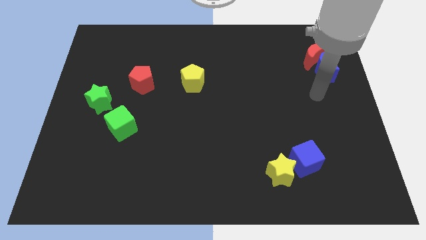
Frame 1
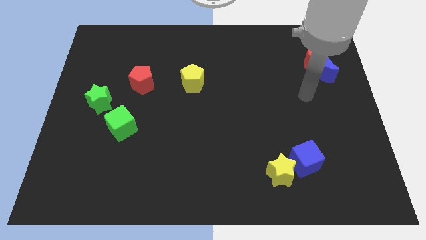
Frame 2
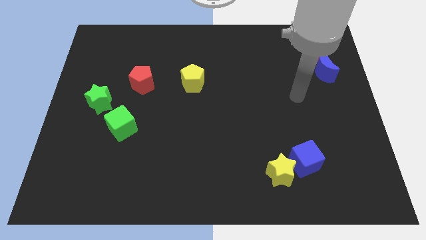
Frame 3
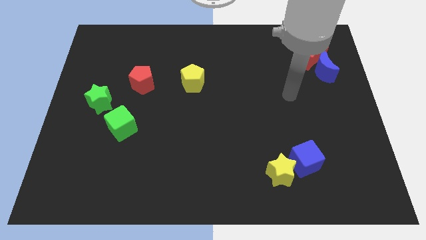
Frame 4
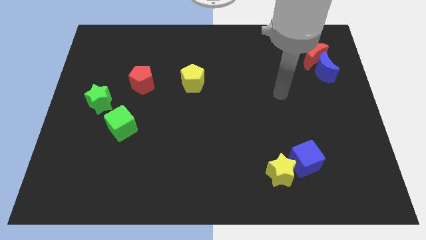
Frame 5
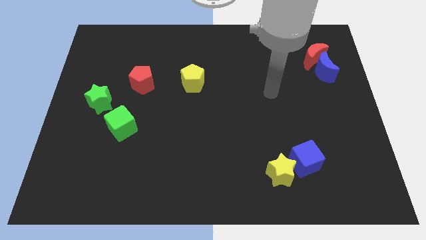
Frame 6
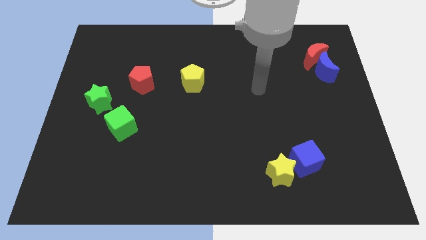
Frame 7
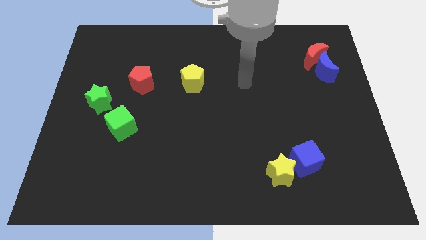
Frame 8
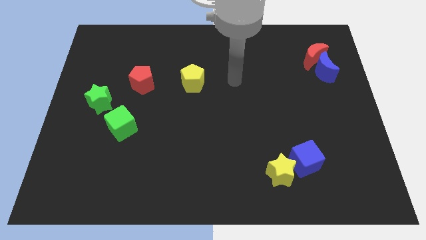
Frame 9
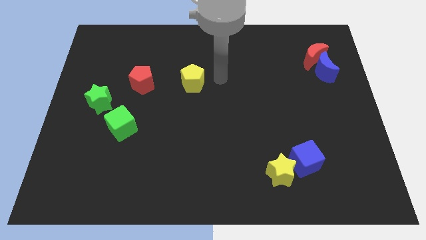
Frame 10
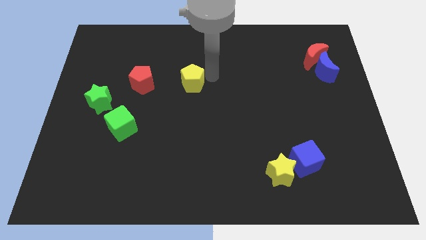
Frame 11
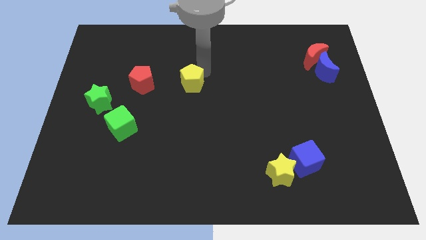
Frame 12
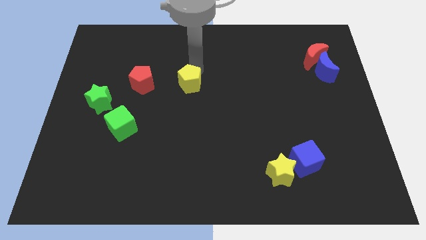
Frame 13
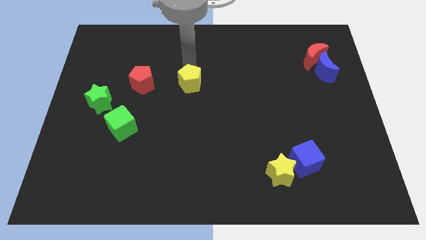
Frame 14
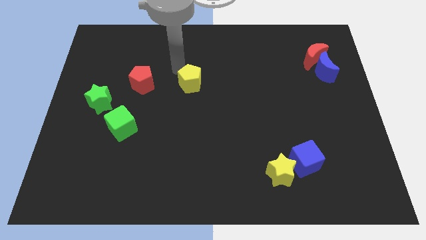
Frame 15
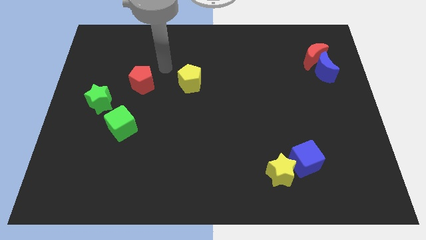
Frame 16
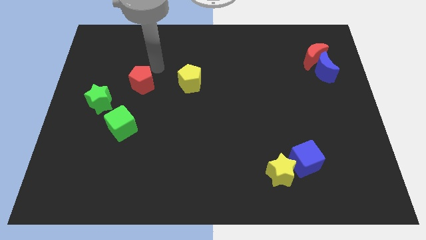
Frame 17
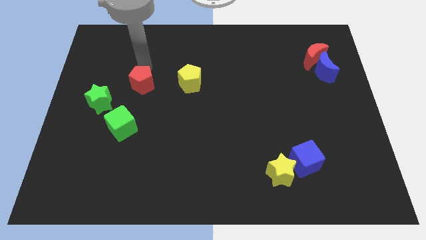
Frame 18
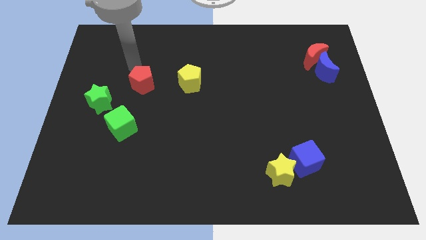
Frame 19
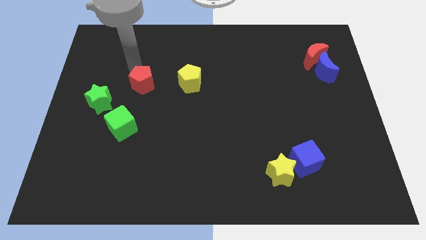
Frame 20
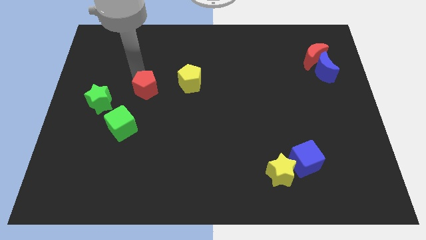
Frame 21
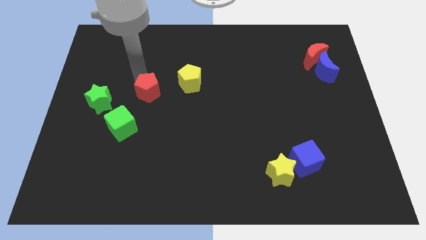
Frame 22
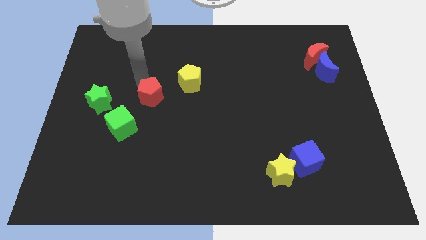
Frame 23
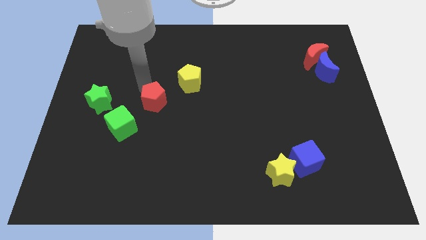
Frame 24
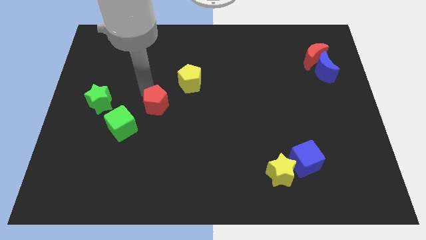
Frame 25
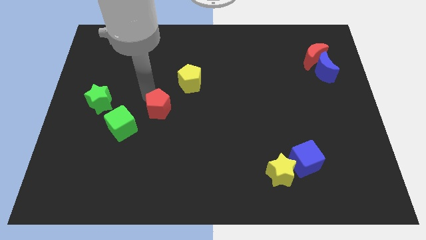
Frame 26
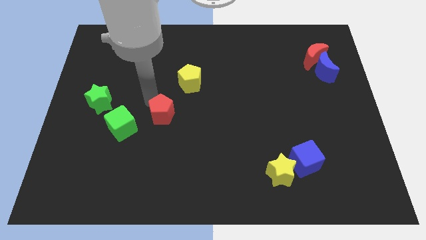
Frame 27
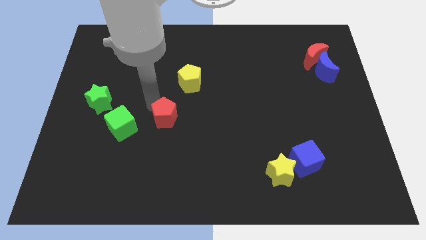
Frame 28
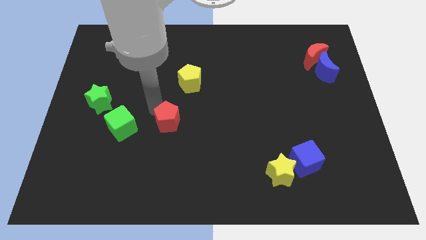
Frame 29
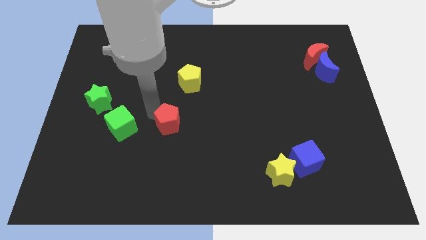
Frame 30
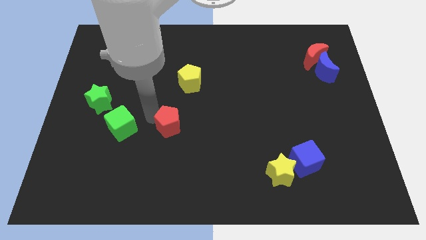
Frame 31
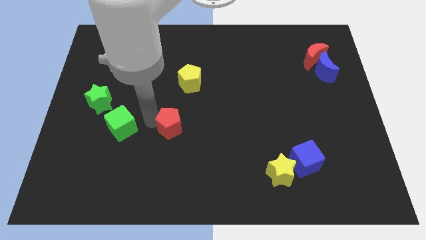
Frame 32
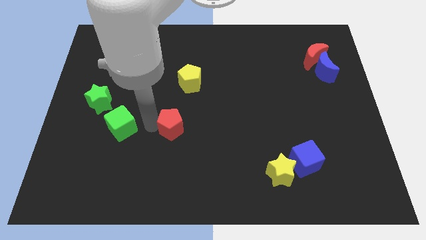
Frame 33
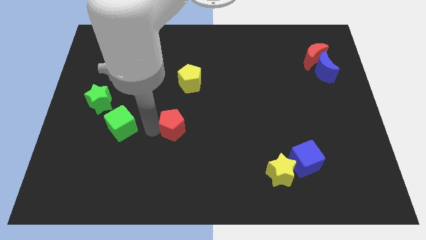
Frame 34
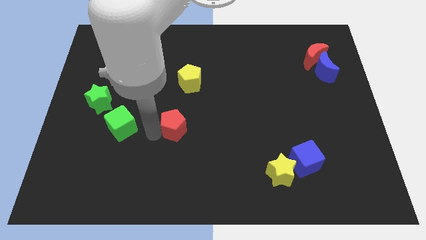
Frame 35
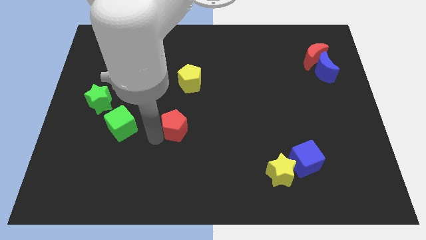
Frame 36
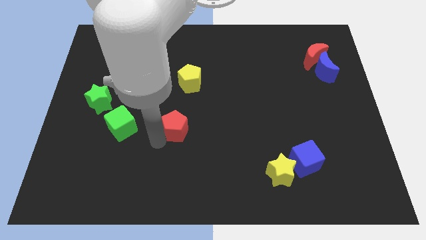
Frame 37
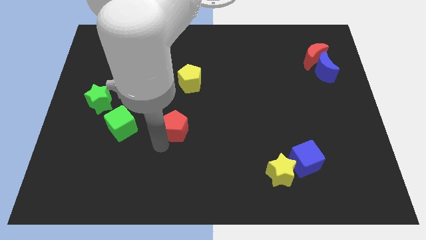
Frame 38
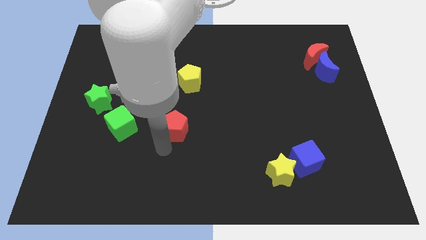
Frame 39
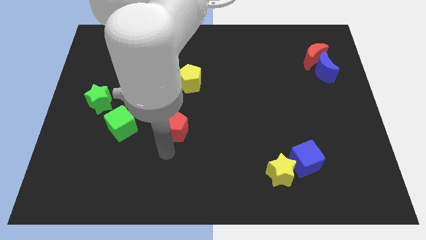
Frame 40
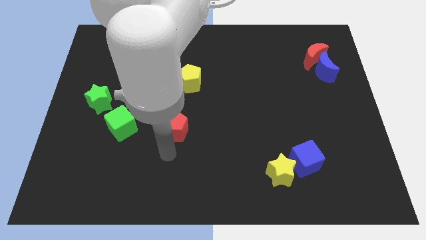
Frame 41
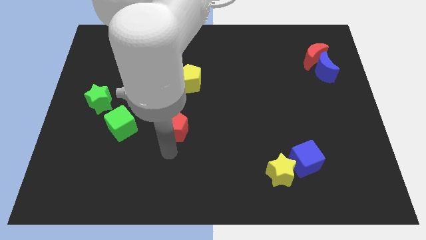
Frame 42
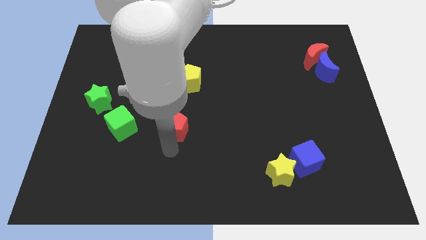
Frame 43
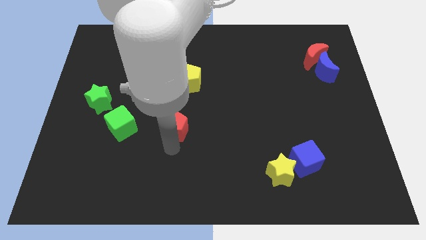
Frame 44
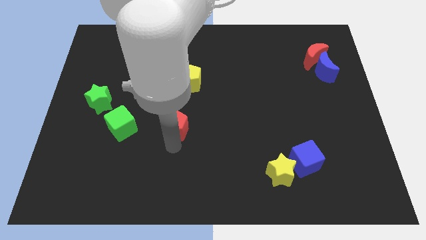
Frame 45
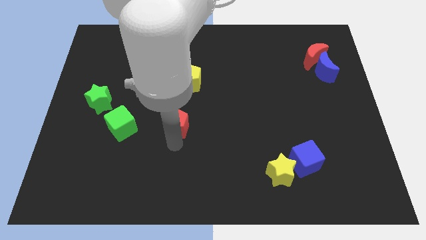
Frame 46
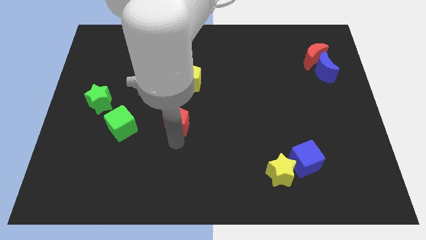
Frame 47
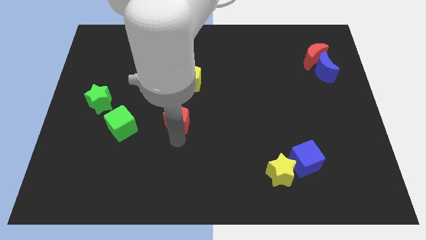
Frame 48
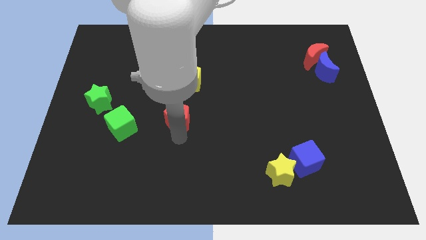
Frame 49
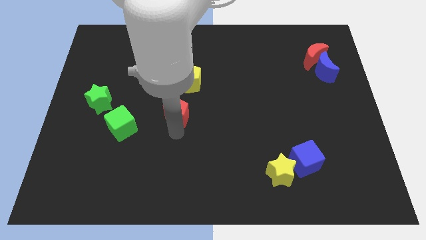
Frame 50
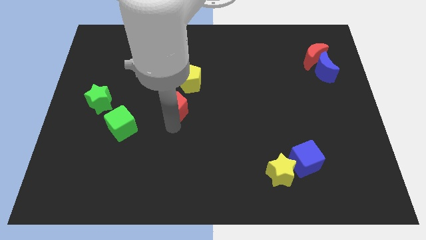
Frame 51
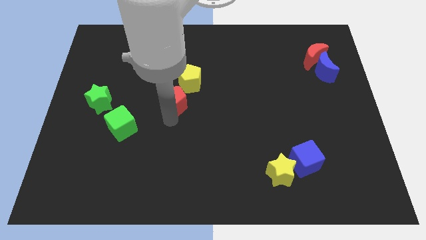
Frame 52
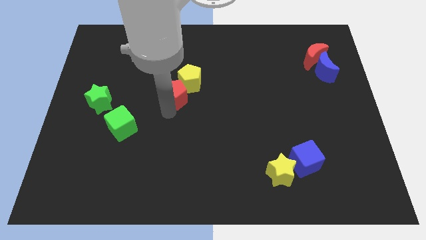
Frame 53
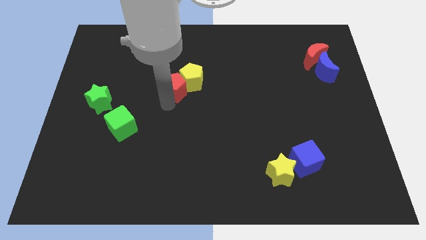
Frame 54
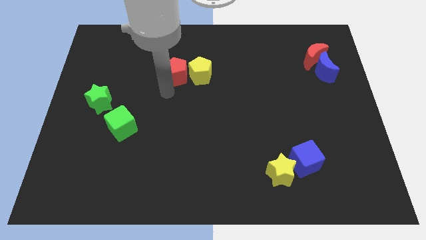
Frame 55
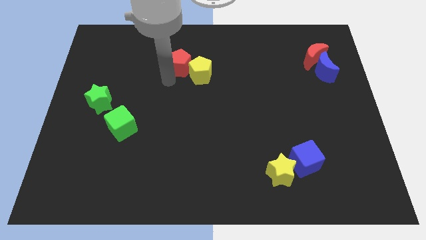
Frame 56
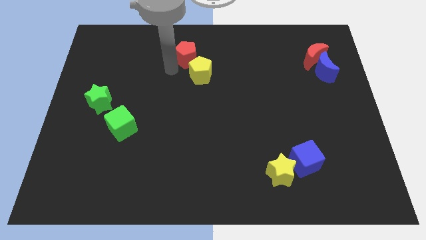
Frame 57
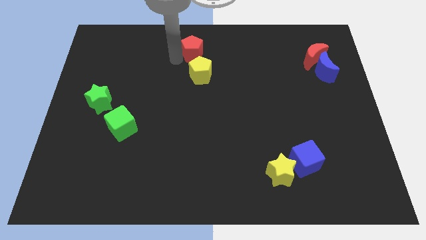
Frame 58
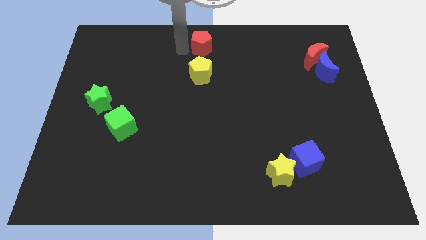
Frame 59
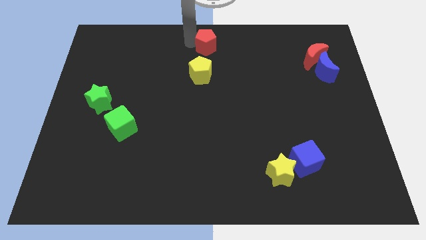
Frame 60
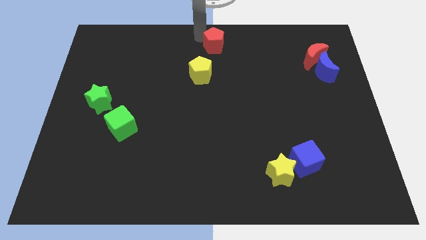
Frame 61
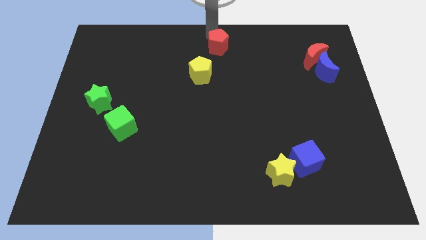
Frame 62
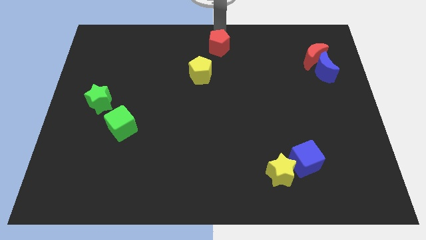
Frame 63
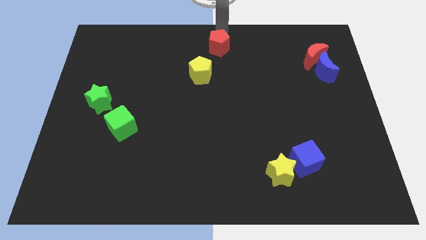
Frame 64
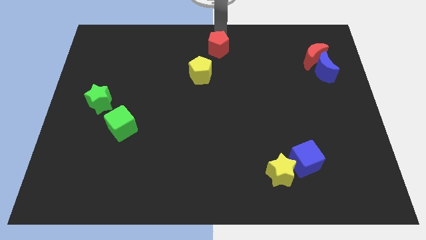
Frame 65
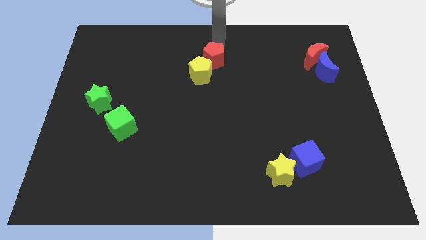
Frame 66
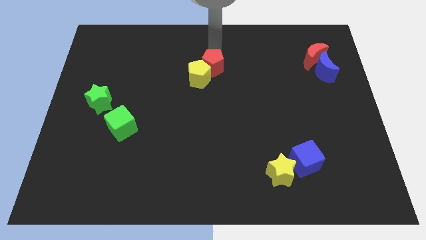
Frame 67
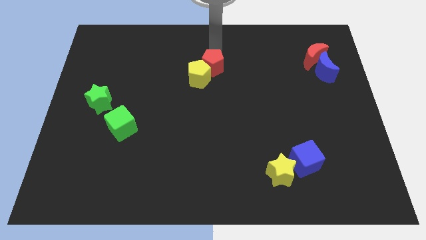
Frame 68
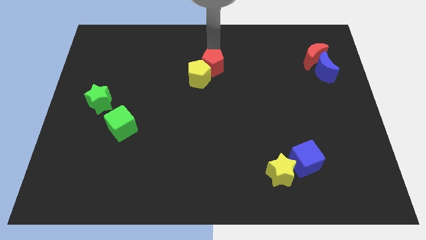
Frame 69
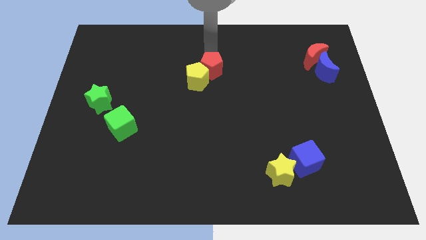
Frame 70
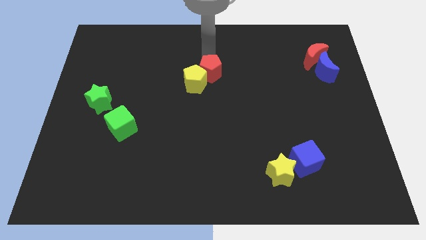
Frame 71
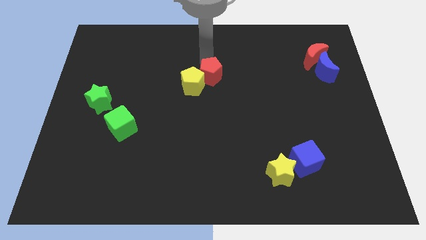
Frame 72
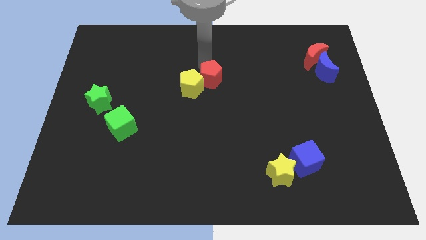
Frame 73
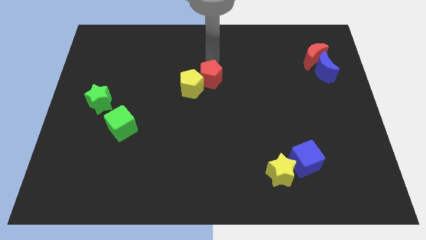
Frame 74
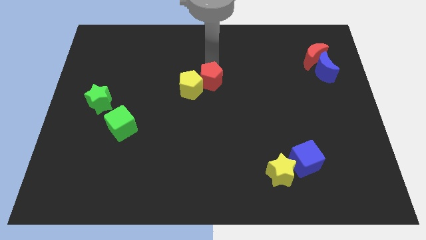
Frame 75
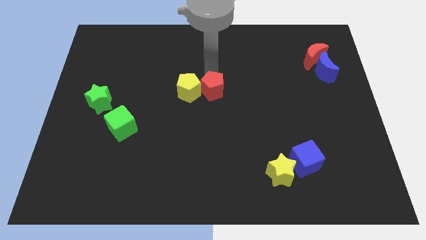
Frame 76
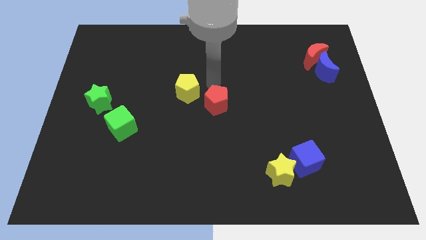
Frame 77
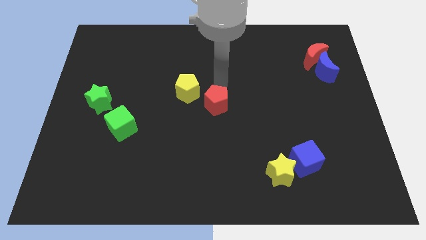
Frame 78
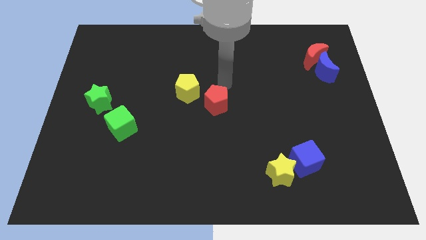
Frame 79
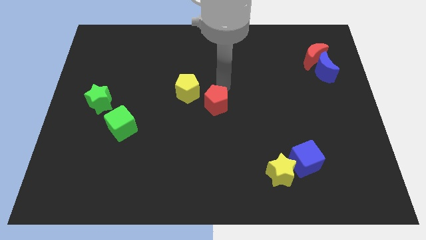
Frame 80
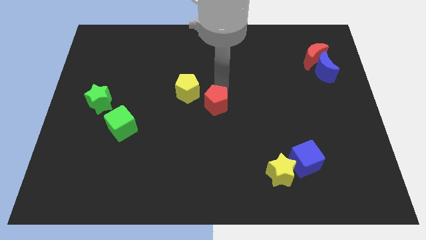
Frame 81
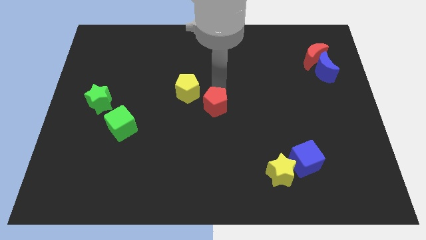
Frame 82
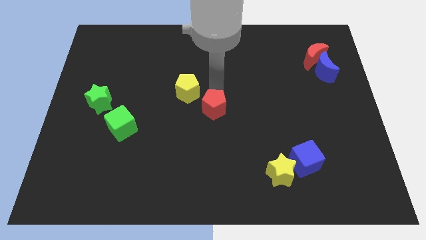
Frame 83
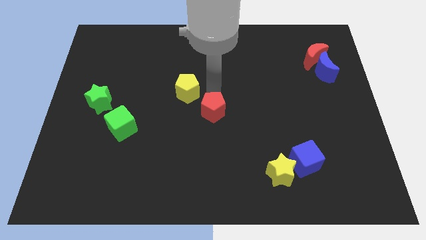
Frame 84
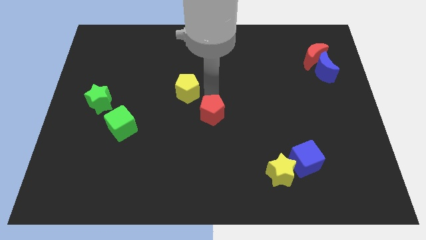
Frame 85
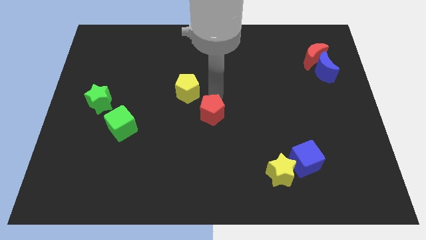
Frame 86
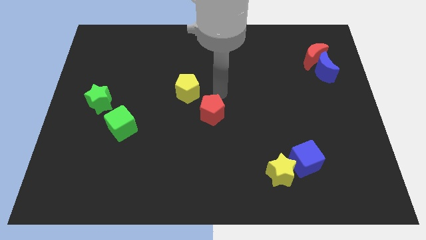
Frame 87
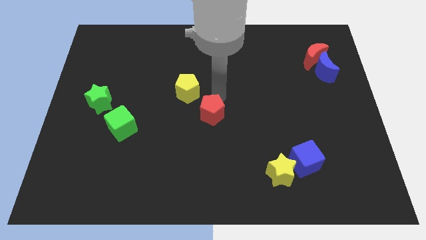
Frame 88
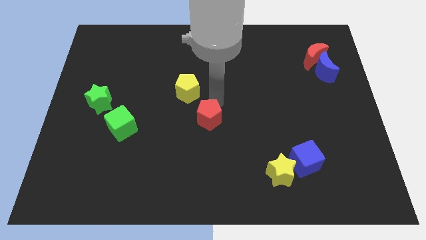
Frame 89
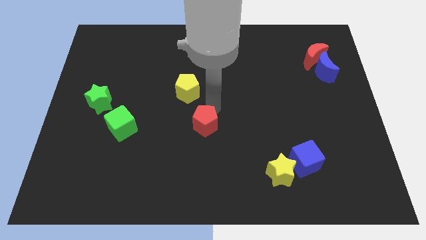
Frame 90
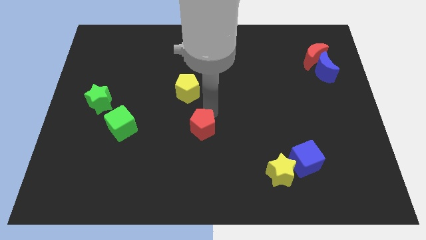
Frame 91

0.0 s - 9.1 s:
push the red pentagon down and right diagonally
